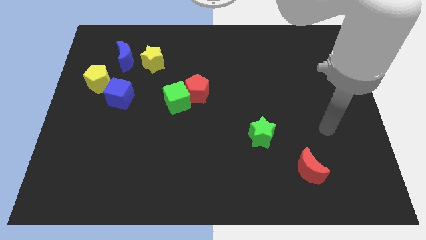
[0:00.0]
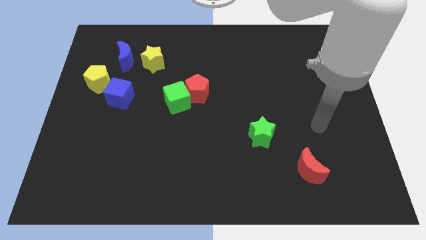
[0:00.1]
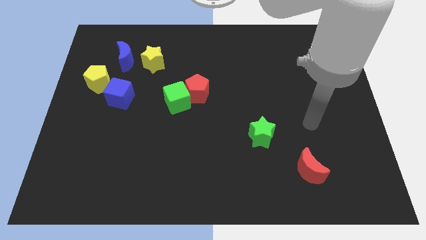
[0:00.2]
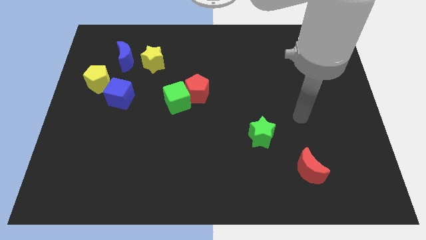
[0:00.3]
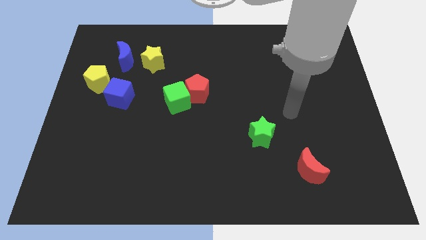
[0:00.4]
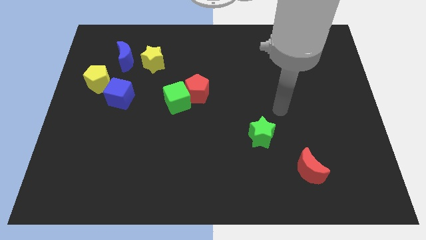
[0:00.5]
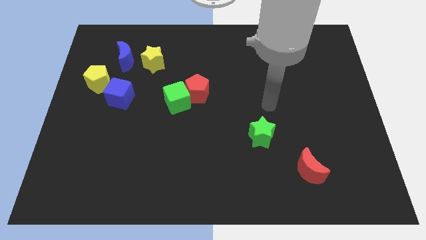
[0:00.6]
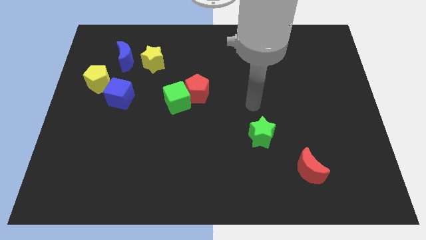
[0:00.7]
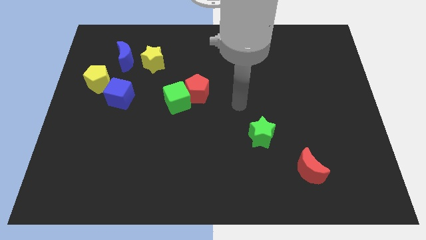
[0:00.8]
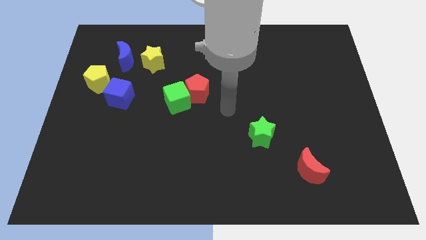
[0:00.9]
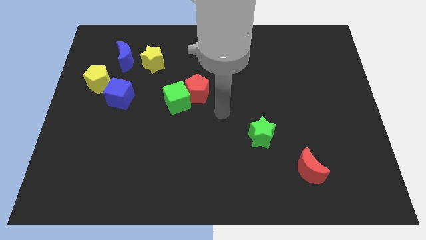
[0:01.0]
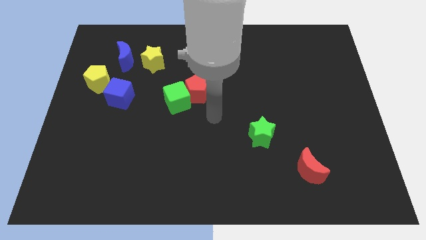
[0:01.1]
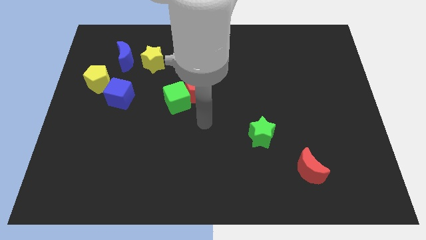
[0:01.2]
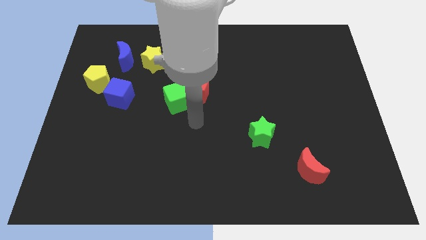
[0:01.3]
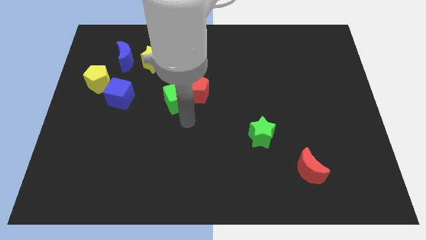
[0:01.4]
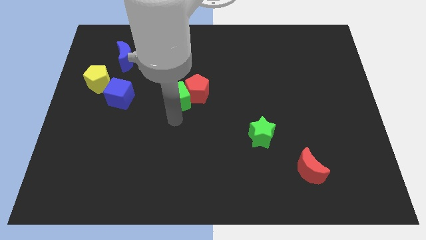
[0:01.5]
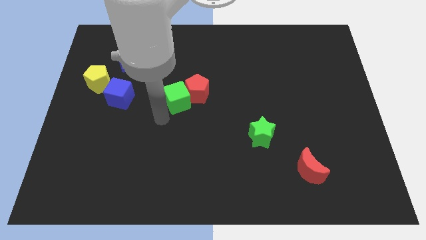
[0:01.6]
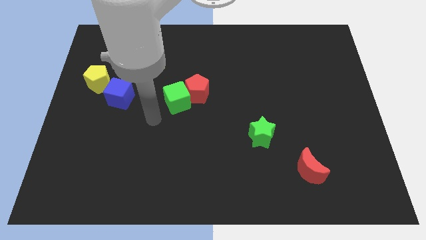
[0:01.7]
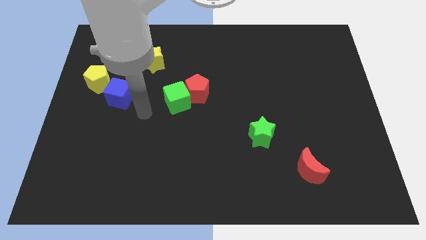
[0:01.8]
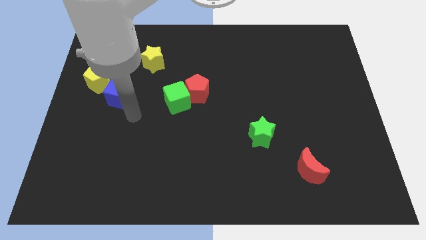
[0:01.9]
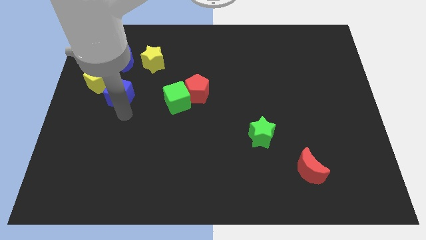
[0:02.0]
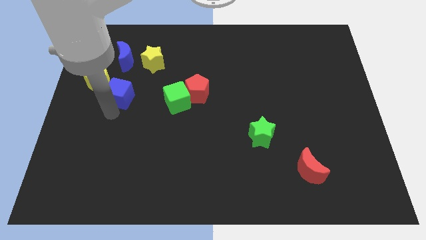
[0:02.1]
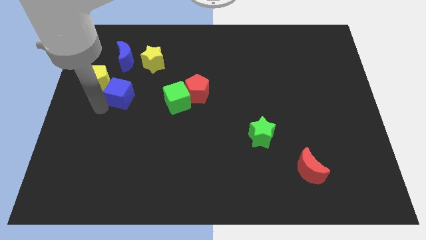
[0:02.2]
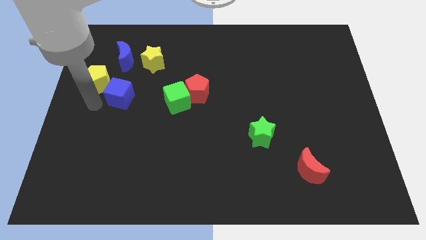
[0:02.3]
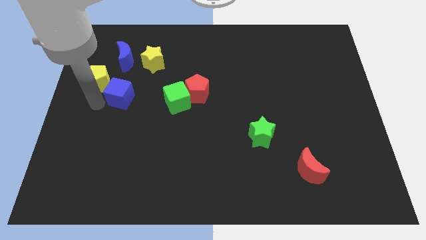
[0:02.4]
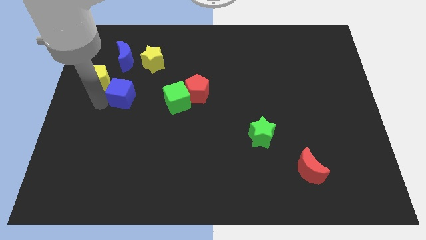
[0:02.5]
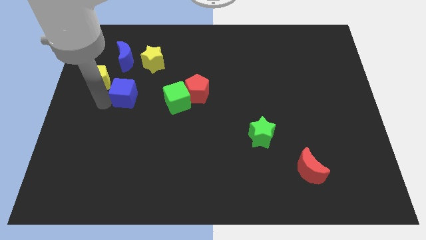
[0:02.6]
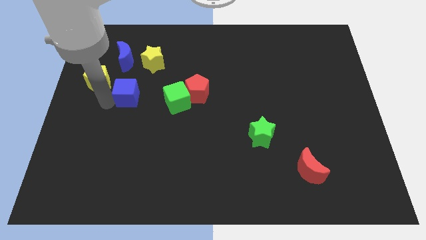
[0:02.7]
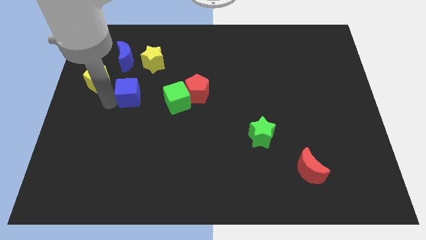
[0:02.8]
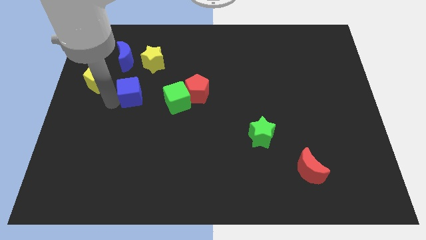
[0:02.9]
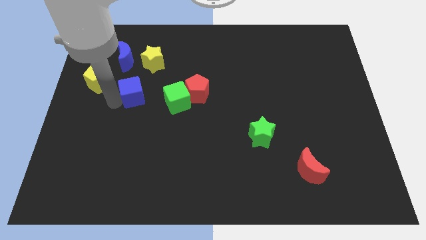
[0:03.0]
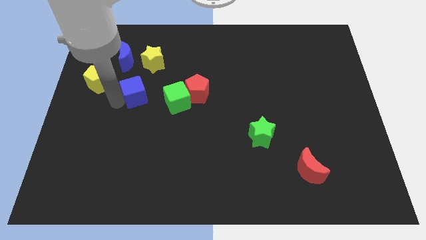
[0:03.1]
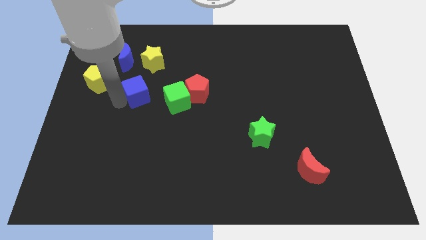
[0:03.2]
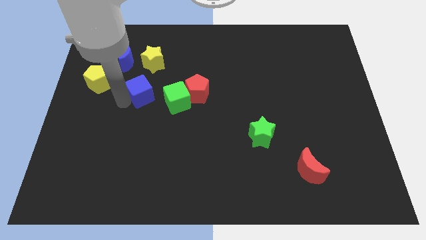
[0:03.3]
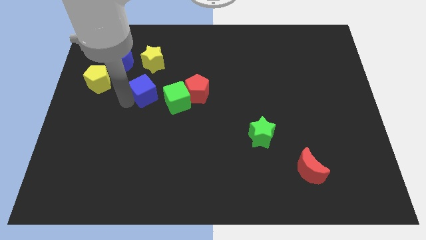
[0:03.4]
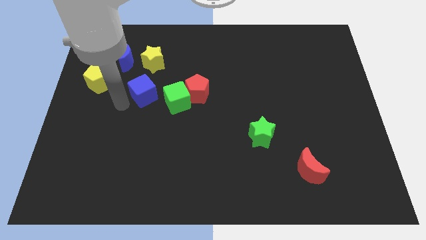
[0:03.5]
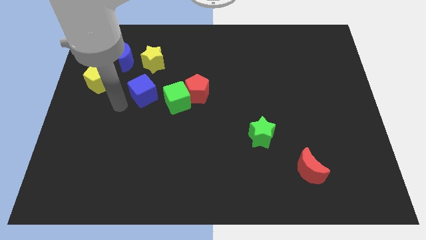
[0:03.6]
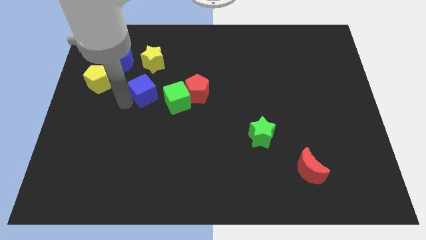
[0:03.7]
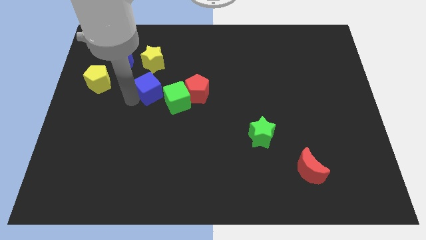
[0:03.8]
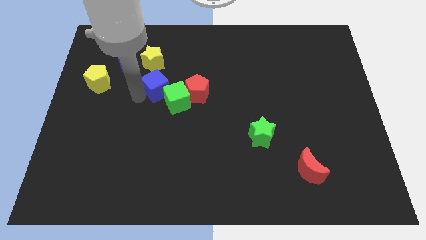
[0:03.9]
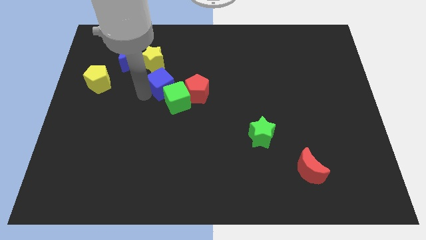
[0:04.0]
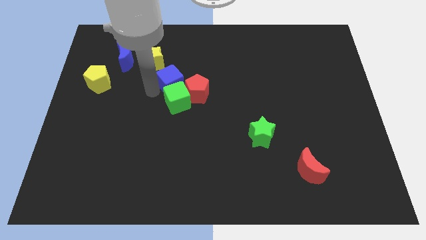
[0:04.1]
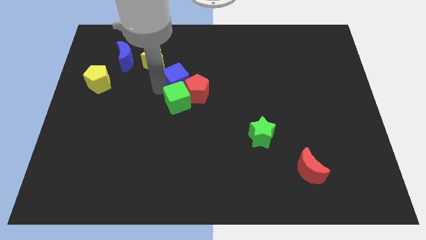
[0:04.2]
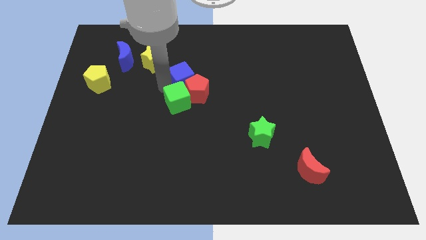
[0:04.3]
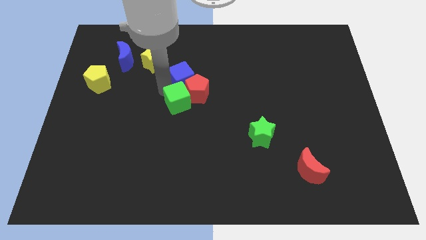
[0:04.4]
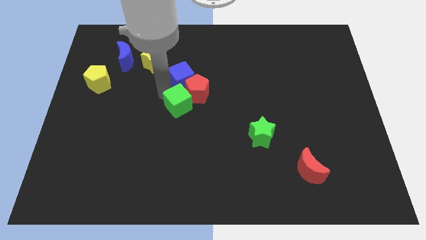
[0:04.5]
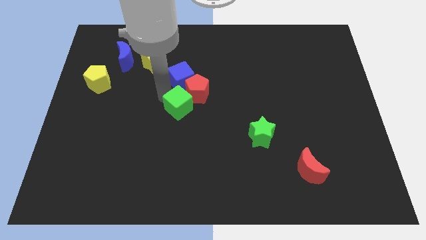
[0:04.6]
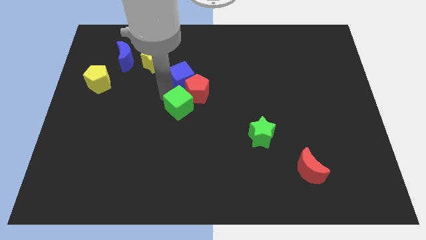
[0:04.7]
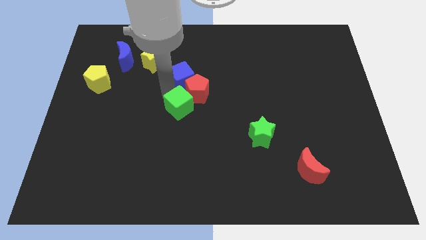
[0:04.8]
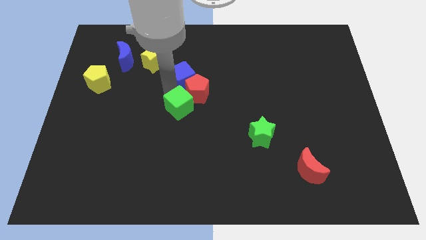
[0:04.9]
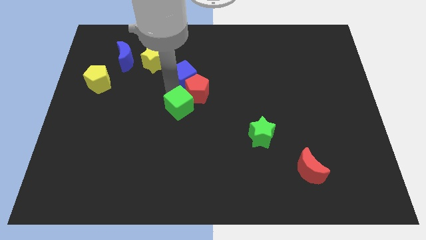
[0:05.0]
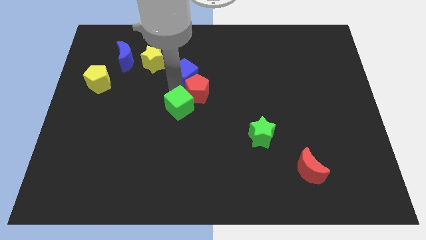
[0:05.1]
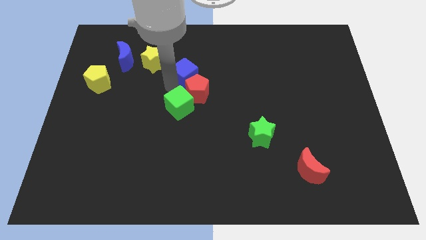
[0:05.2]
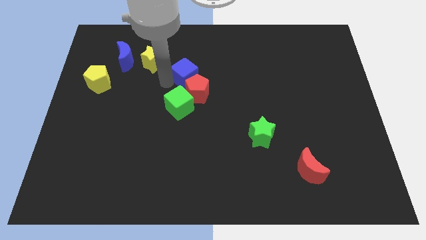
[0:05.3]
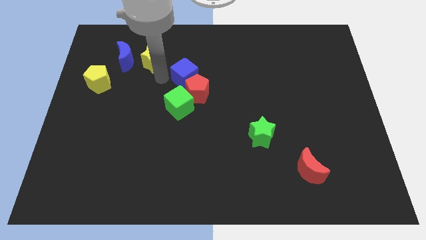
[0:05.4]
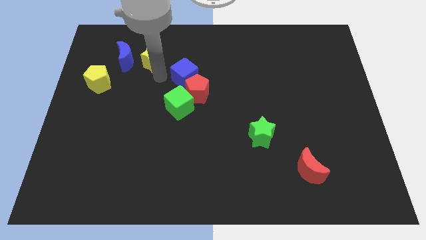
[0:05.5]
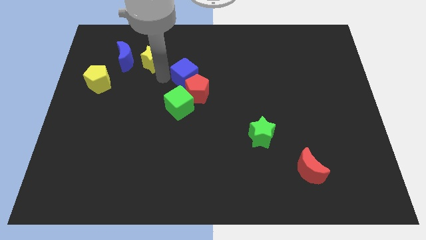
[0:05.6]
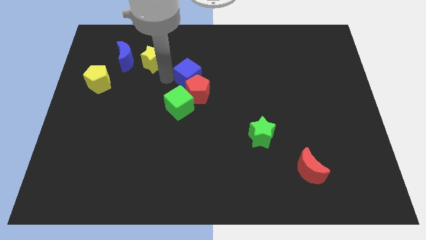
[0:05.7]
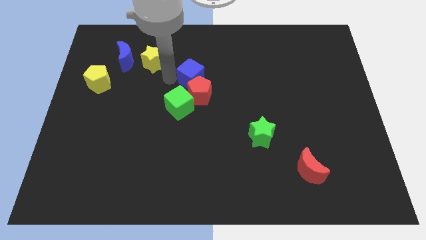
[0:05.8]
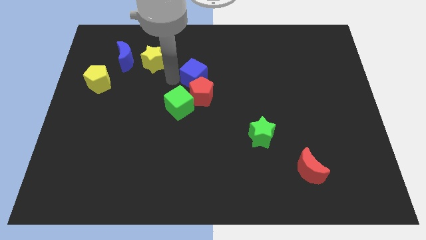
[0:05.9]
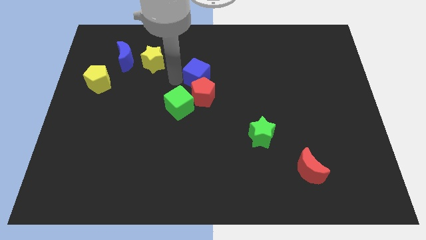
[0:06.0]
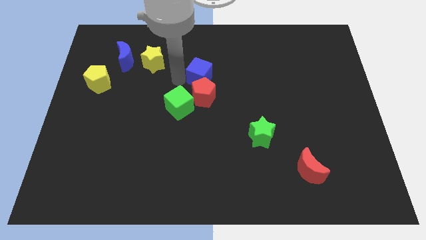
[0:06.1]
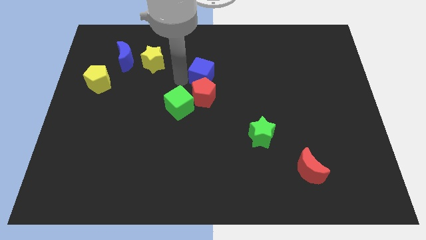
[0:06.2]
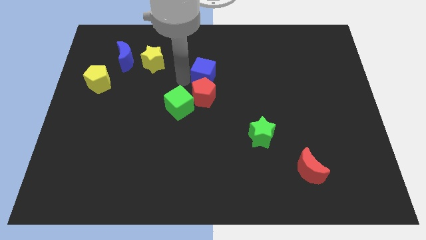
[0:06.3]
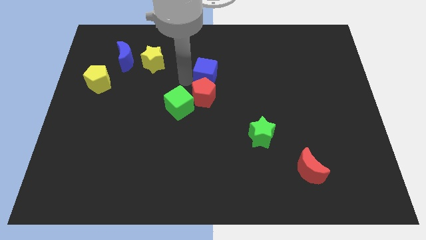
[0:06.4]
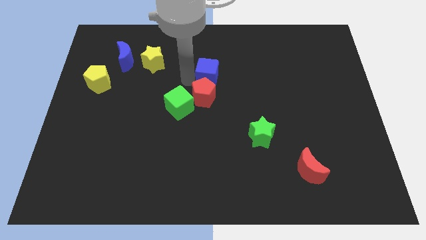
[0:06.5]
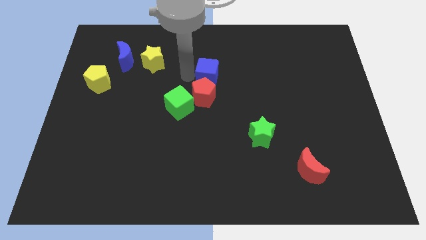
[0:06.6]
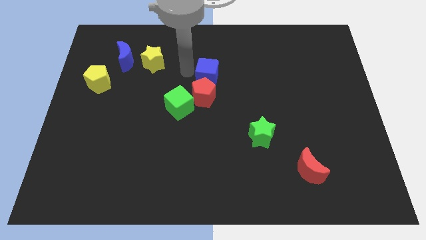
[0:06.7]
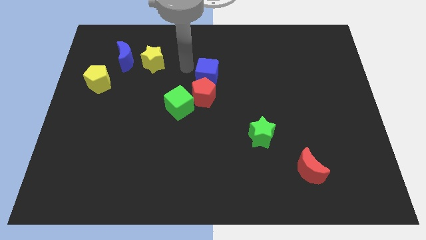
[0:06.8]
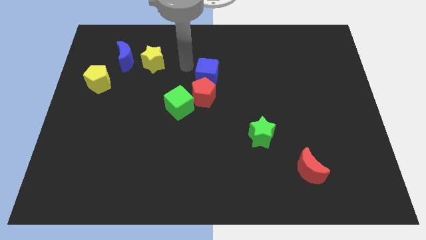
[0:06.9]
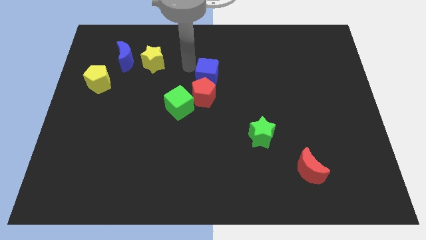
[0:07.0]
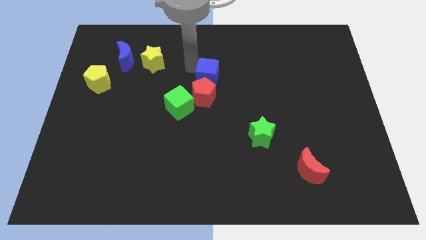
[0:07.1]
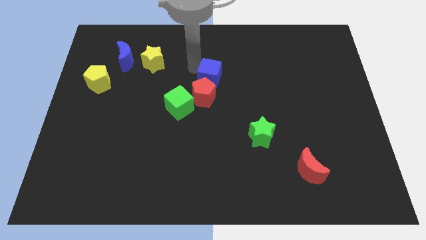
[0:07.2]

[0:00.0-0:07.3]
move the blue cube right

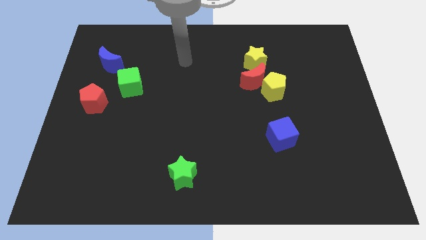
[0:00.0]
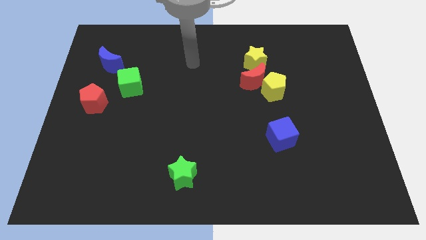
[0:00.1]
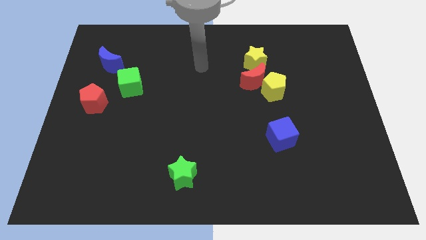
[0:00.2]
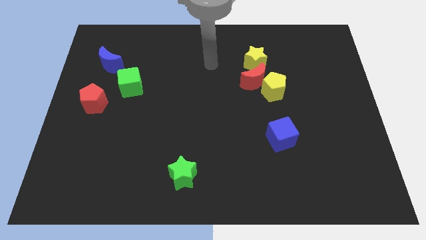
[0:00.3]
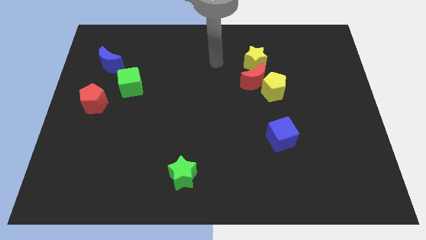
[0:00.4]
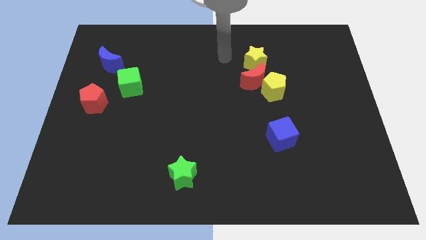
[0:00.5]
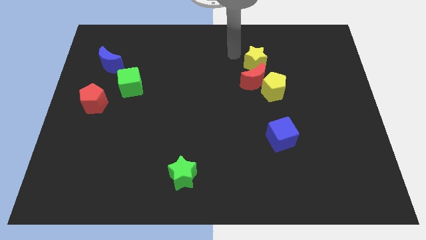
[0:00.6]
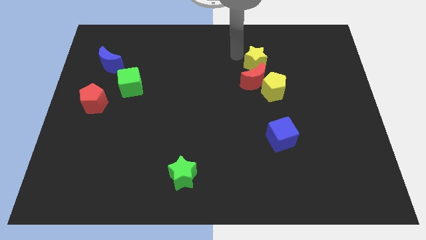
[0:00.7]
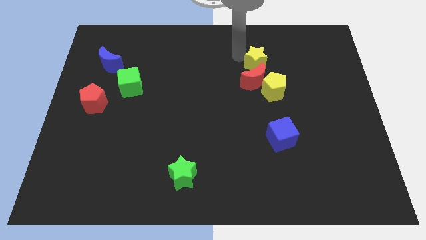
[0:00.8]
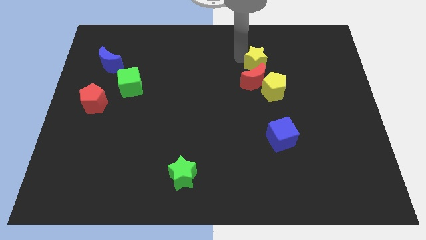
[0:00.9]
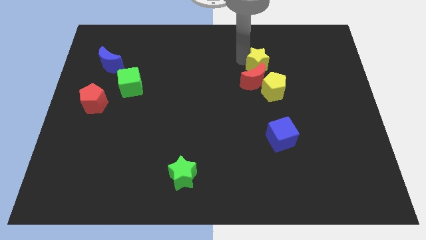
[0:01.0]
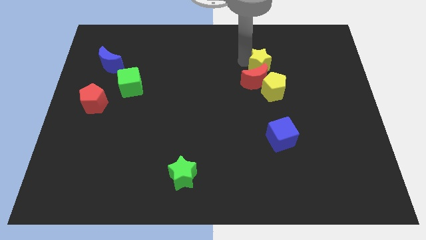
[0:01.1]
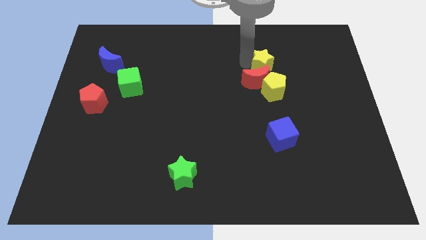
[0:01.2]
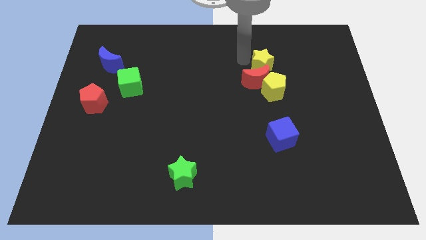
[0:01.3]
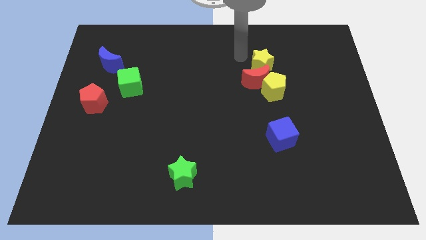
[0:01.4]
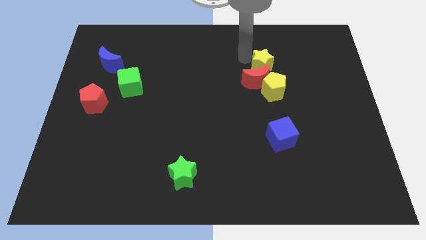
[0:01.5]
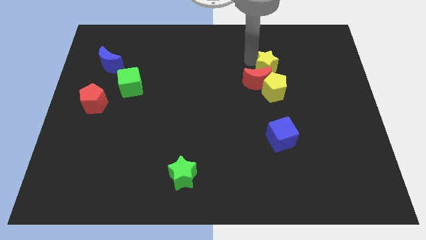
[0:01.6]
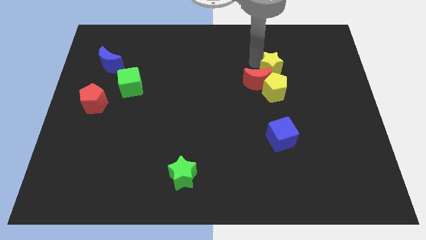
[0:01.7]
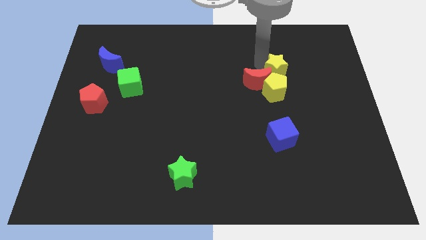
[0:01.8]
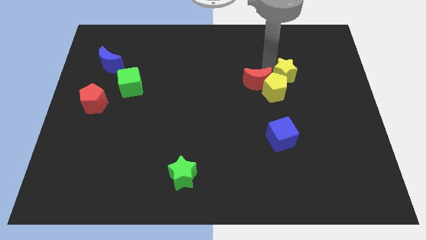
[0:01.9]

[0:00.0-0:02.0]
slightly push the yellow star downwards and then to the right
